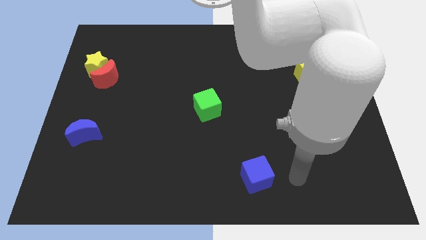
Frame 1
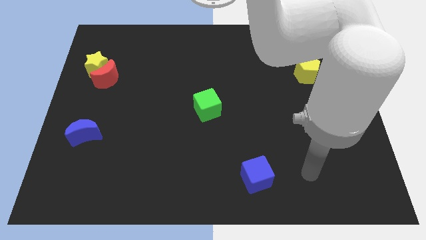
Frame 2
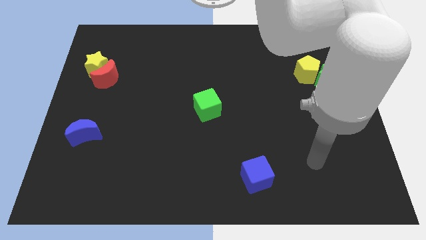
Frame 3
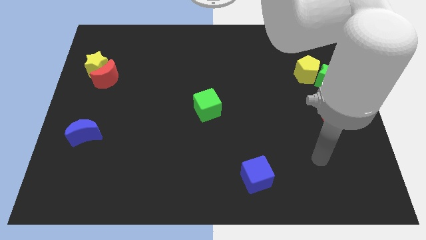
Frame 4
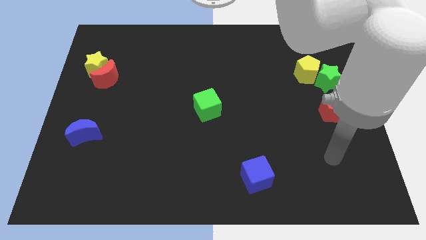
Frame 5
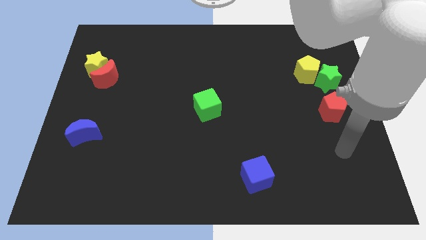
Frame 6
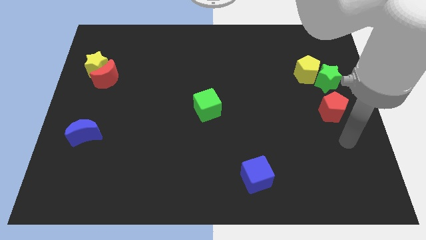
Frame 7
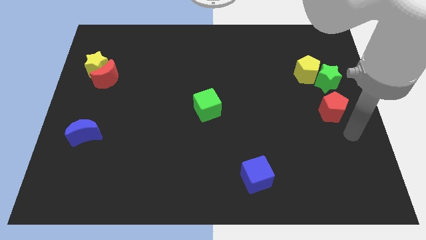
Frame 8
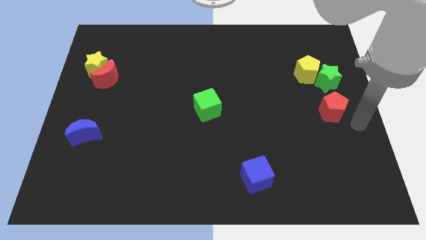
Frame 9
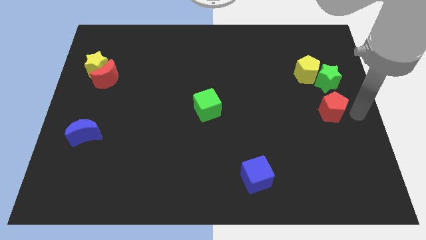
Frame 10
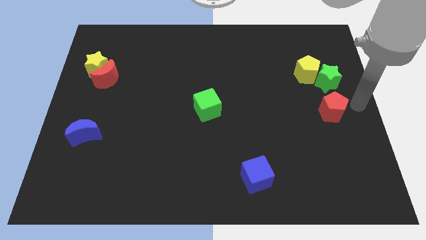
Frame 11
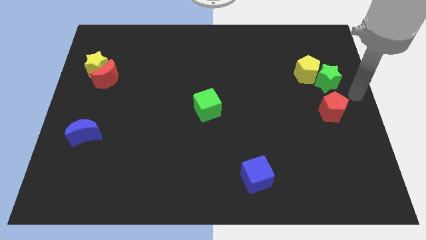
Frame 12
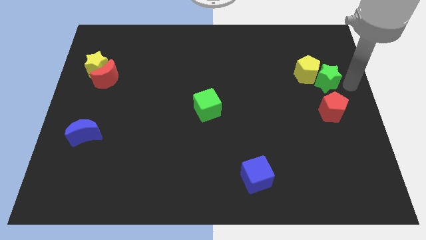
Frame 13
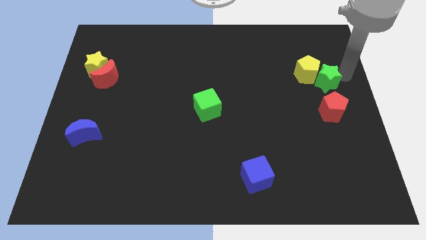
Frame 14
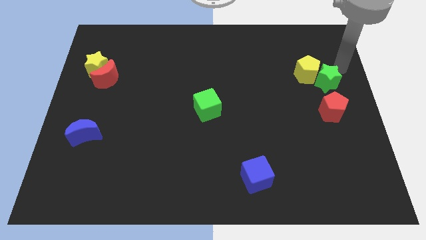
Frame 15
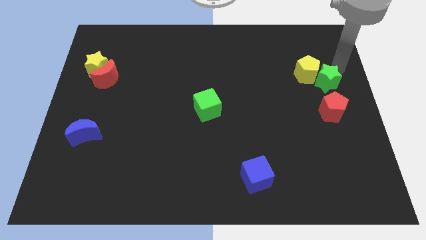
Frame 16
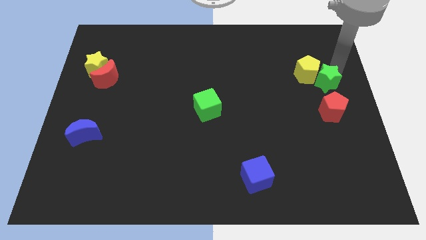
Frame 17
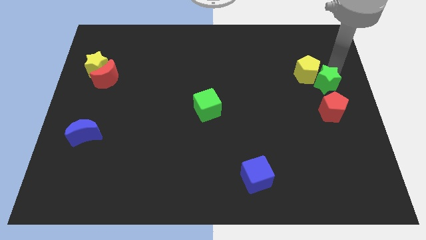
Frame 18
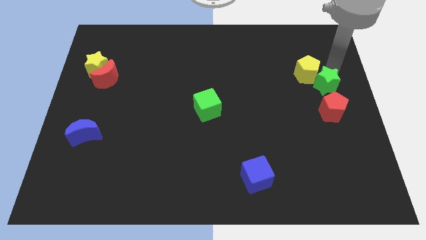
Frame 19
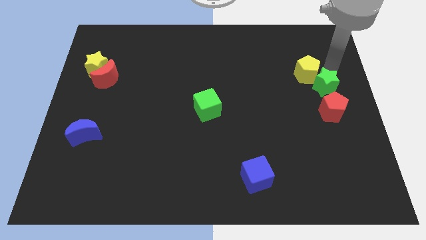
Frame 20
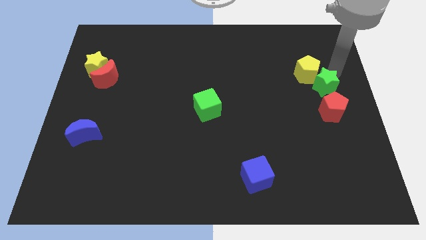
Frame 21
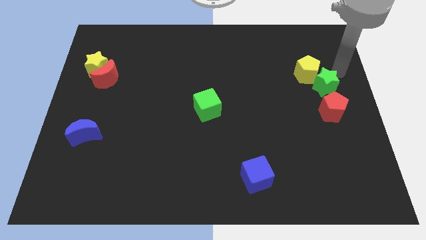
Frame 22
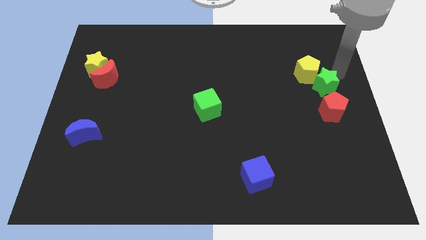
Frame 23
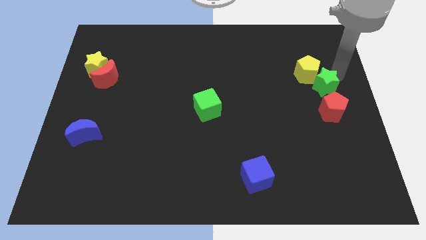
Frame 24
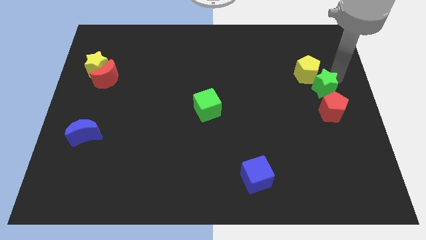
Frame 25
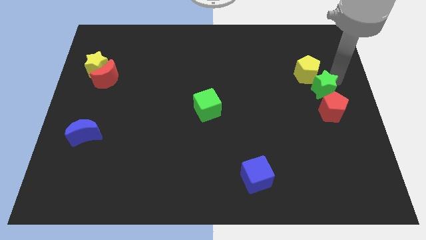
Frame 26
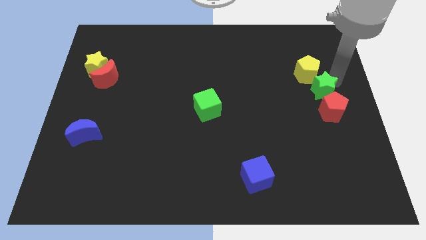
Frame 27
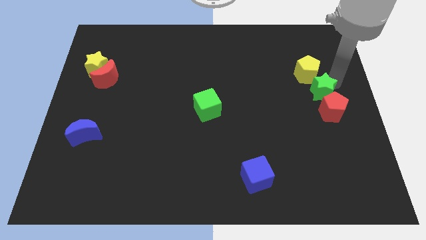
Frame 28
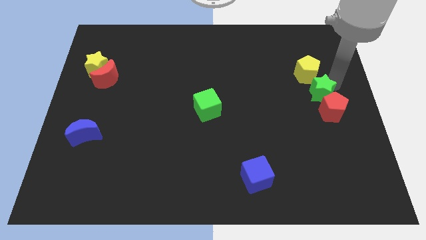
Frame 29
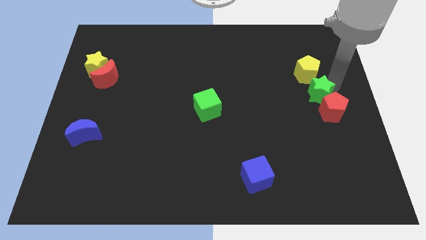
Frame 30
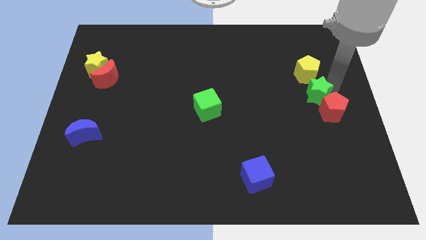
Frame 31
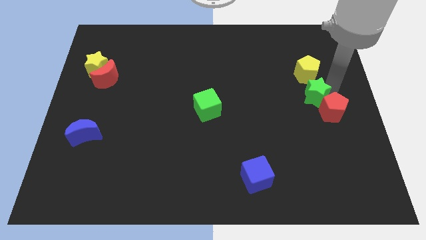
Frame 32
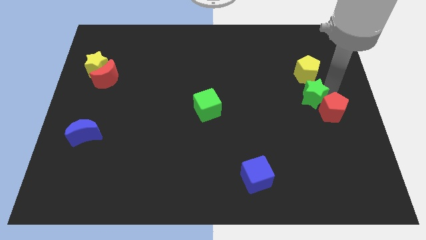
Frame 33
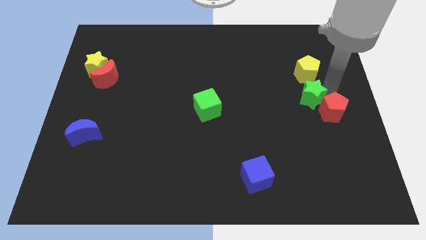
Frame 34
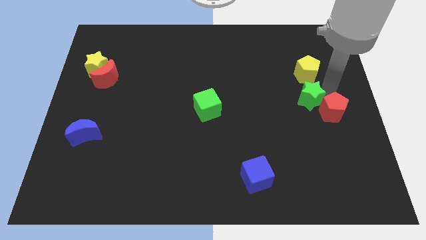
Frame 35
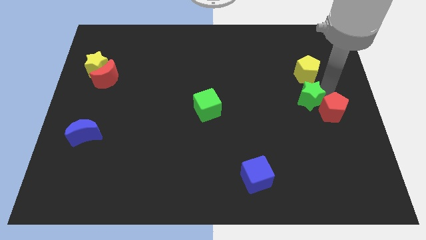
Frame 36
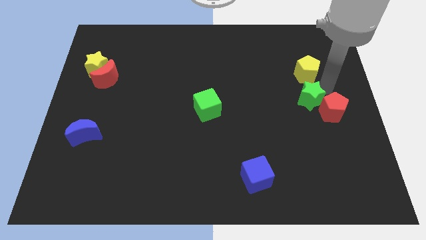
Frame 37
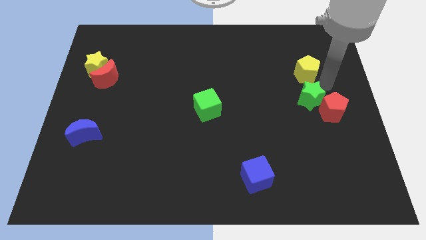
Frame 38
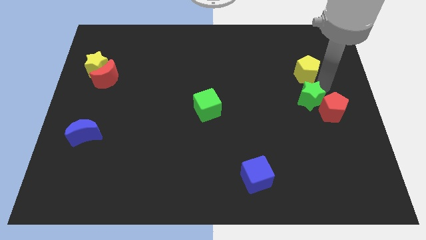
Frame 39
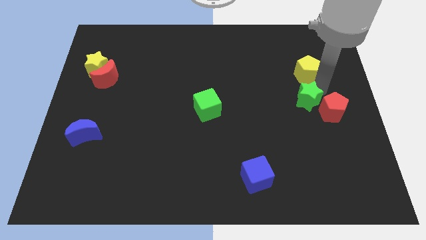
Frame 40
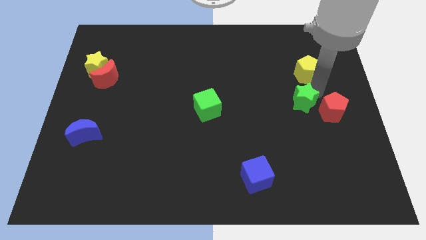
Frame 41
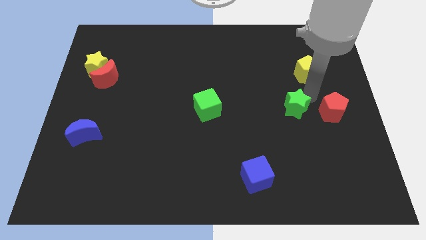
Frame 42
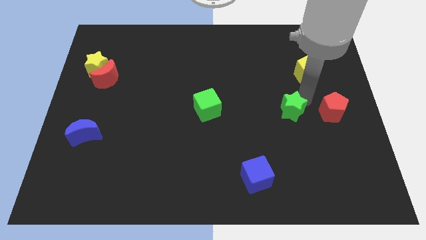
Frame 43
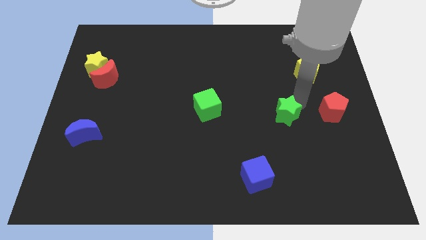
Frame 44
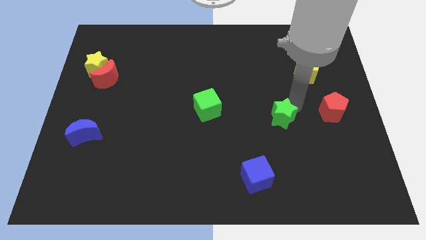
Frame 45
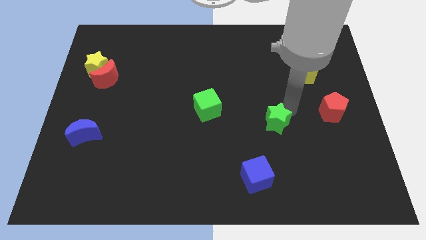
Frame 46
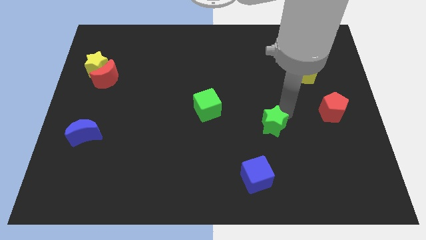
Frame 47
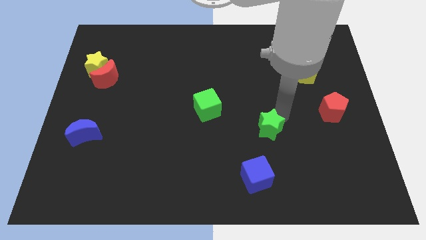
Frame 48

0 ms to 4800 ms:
push the green star down and then to the left

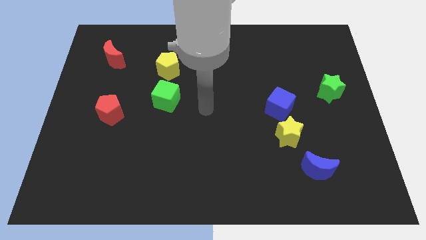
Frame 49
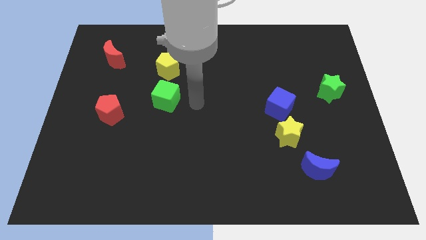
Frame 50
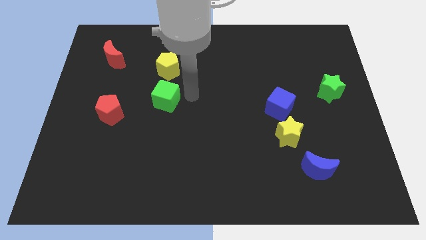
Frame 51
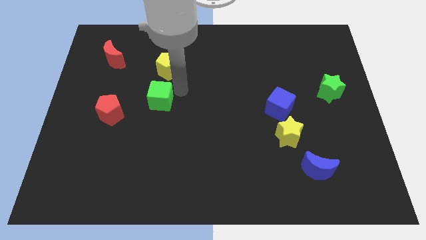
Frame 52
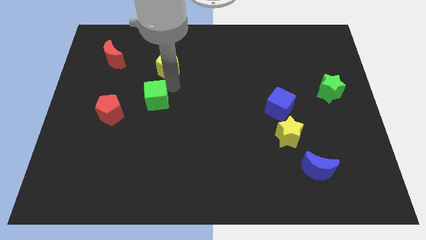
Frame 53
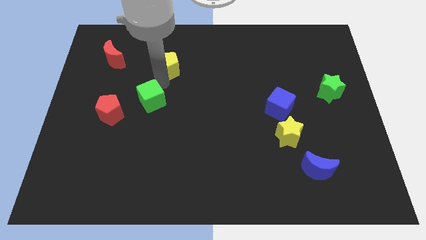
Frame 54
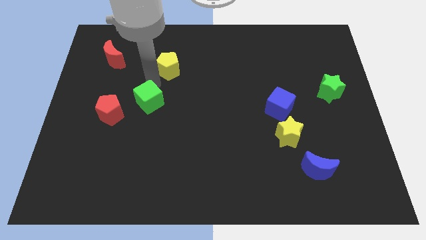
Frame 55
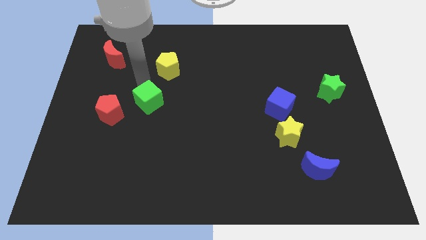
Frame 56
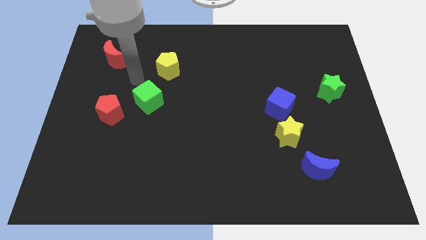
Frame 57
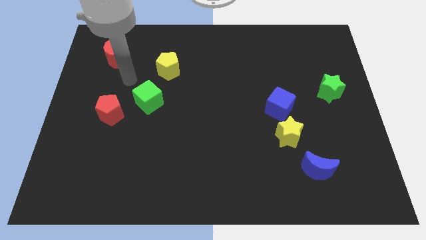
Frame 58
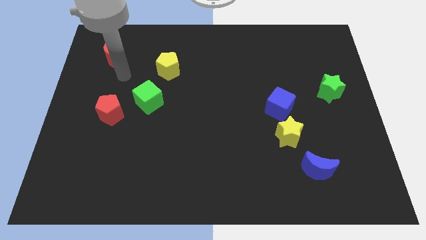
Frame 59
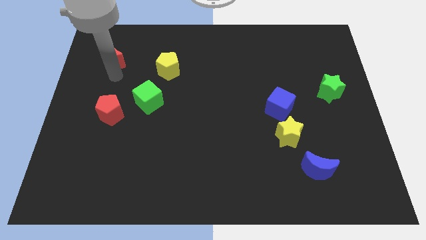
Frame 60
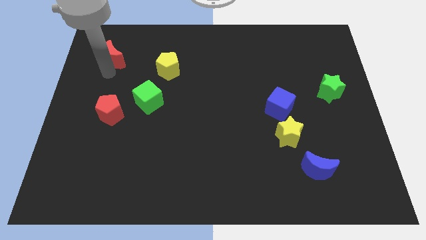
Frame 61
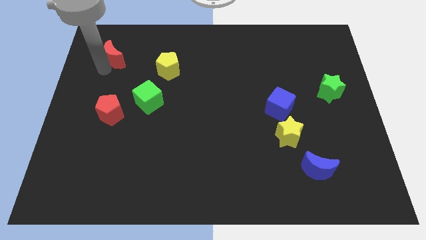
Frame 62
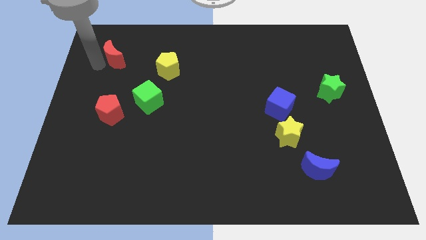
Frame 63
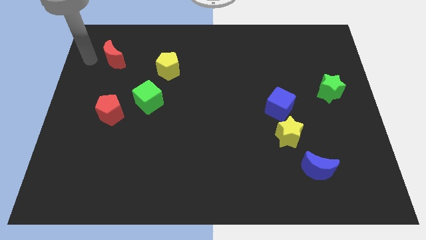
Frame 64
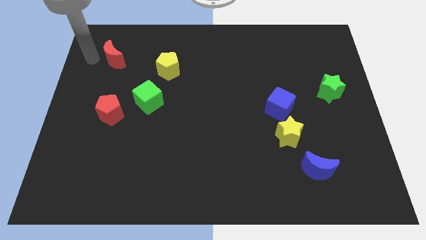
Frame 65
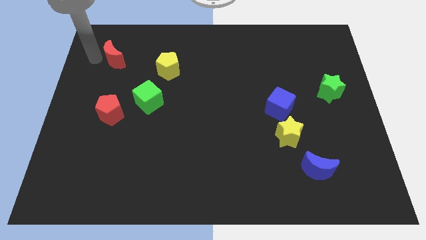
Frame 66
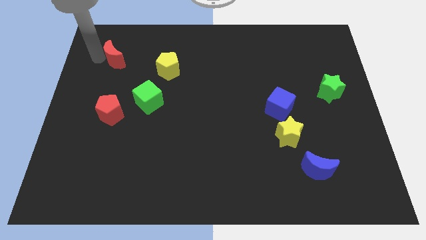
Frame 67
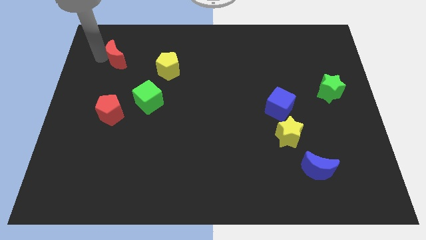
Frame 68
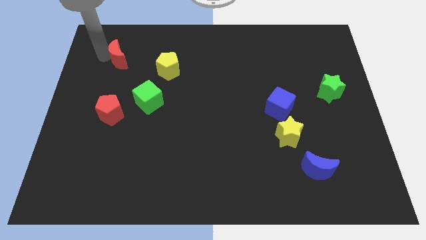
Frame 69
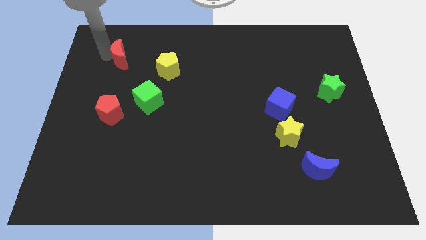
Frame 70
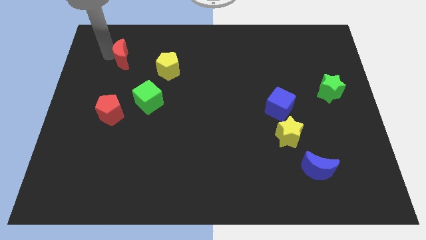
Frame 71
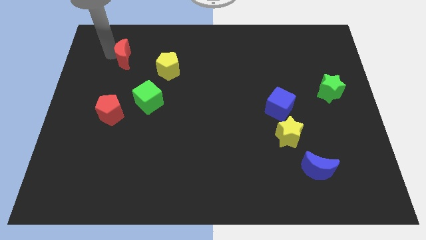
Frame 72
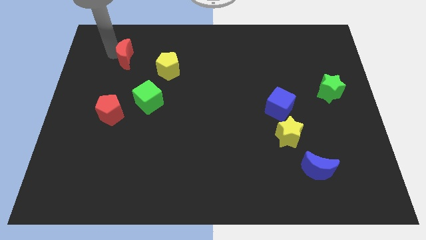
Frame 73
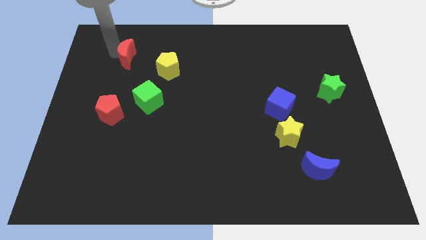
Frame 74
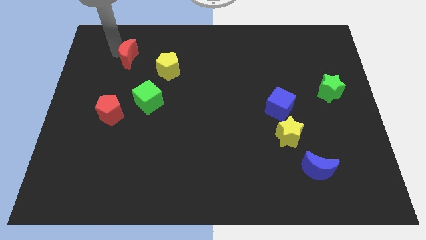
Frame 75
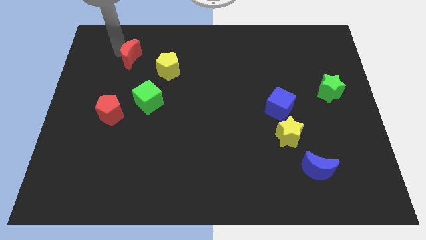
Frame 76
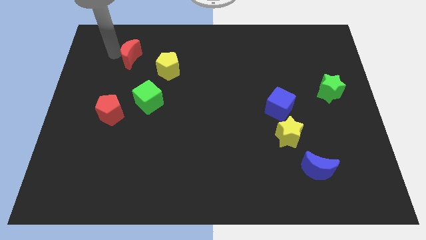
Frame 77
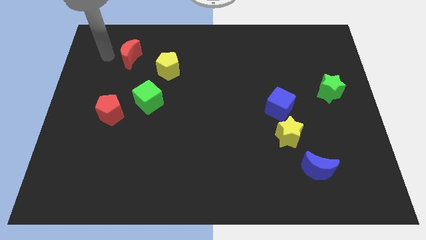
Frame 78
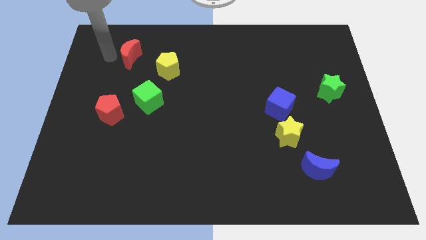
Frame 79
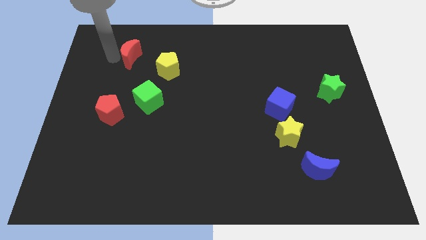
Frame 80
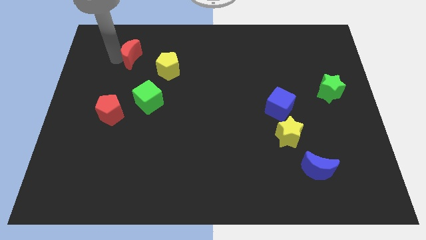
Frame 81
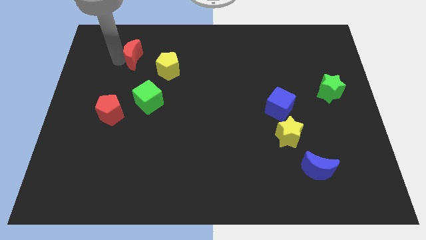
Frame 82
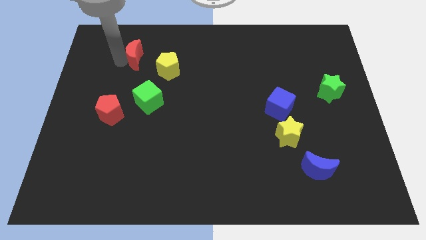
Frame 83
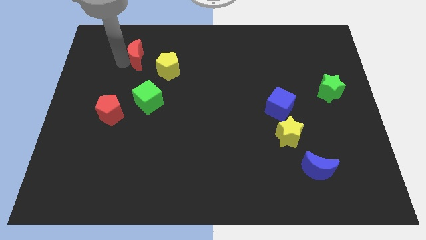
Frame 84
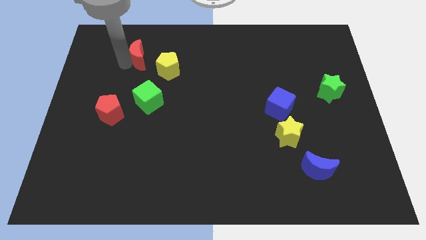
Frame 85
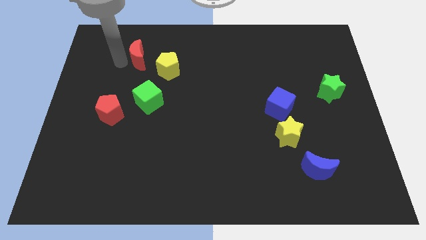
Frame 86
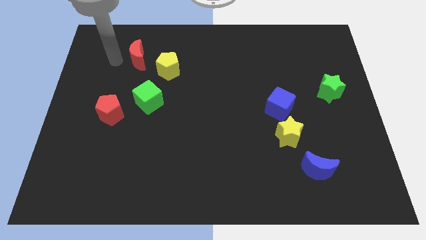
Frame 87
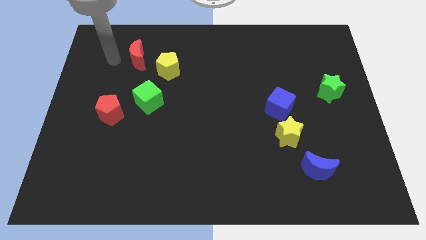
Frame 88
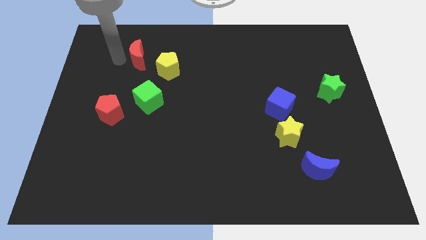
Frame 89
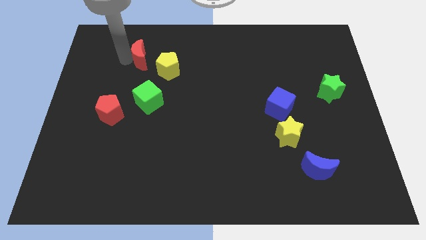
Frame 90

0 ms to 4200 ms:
move the red moon somewhat right
